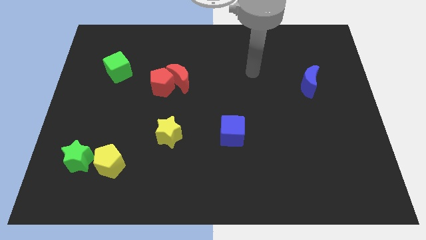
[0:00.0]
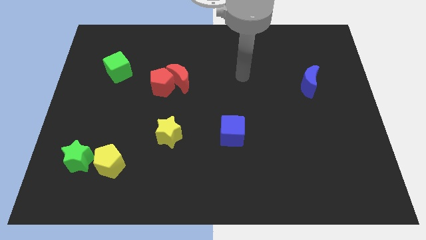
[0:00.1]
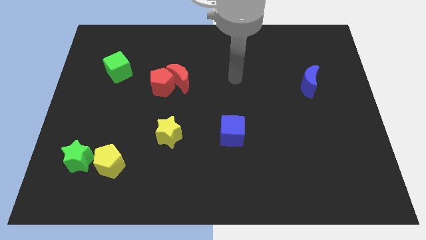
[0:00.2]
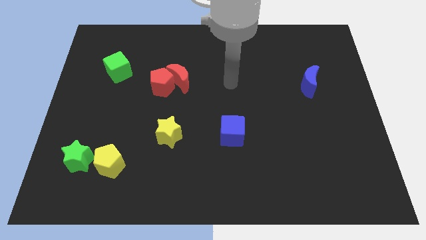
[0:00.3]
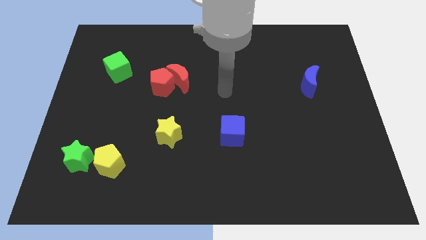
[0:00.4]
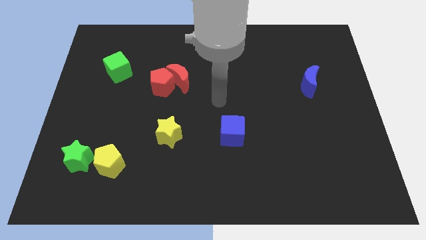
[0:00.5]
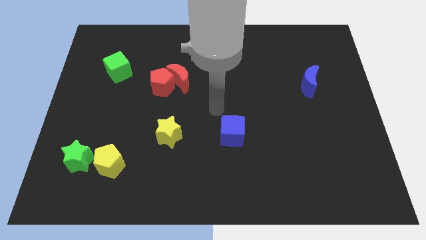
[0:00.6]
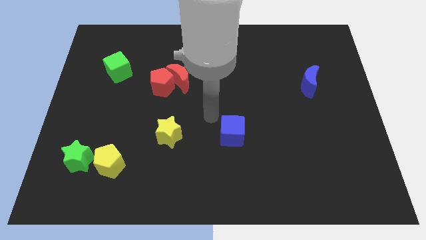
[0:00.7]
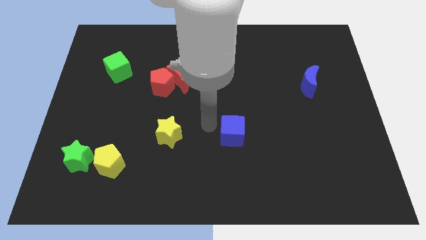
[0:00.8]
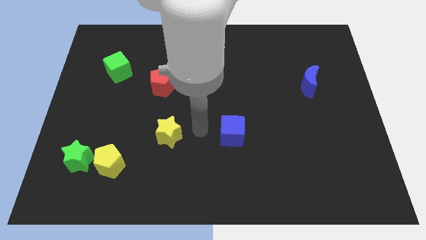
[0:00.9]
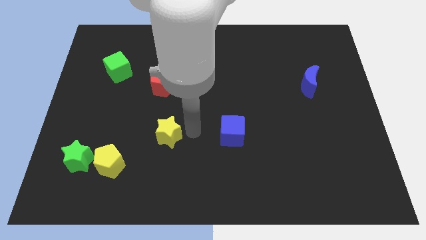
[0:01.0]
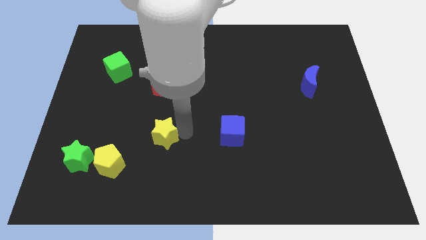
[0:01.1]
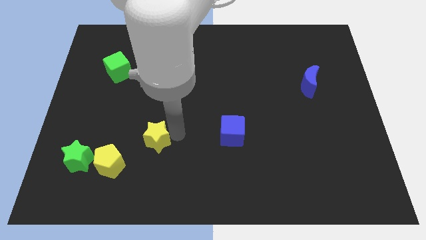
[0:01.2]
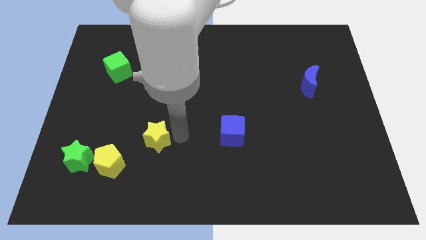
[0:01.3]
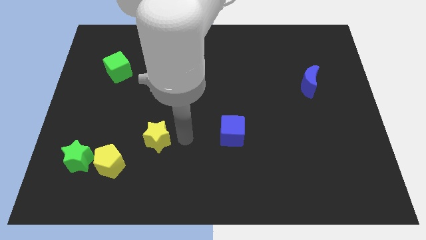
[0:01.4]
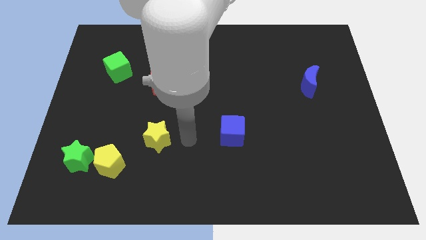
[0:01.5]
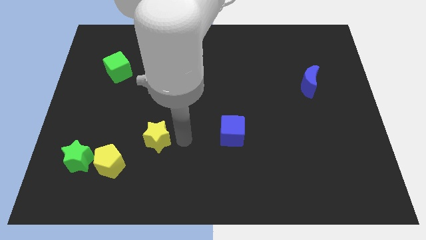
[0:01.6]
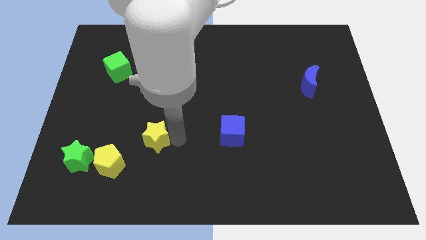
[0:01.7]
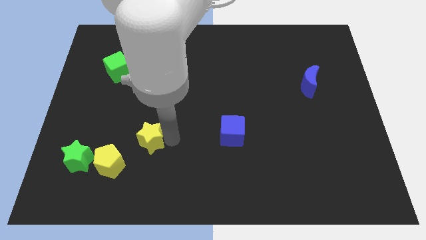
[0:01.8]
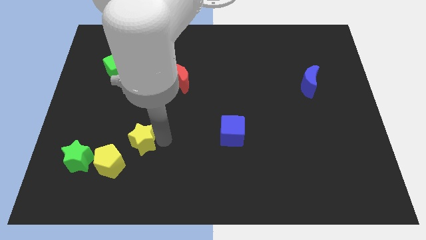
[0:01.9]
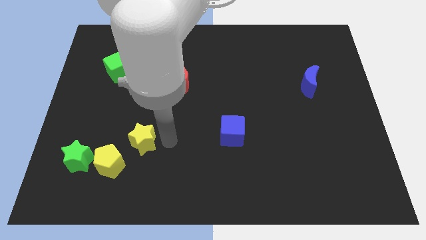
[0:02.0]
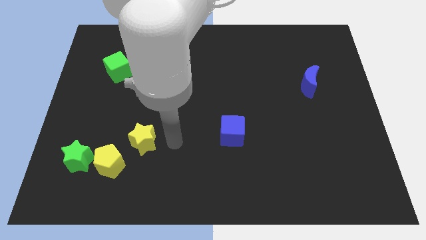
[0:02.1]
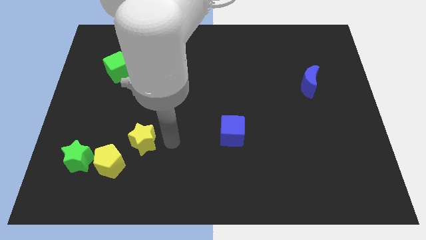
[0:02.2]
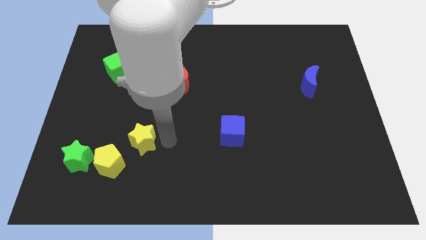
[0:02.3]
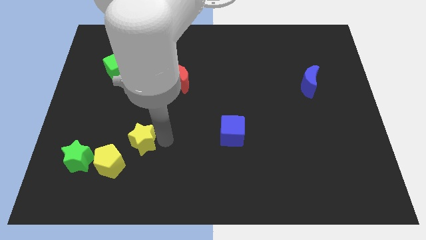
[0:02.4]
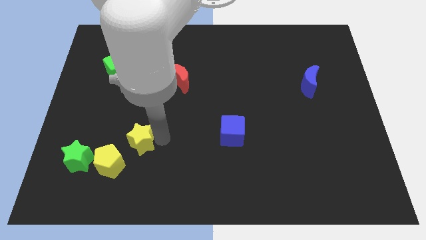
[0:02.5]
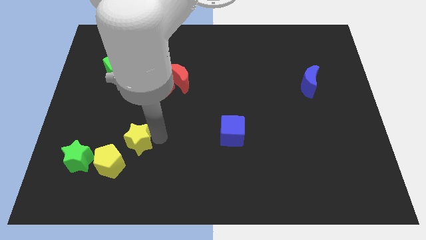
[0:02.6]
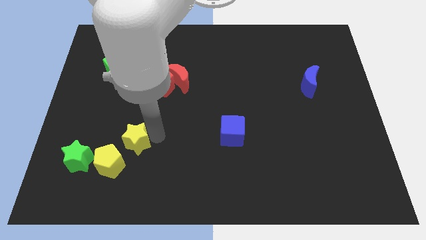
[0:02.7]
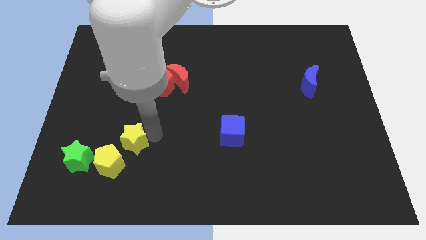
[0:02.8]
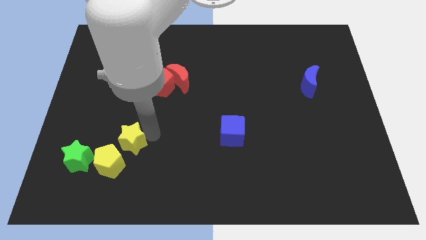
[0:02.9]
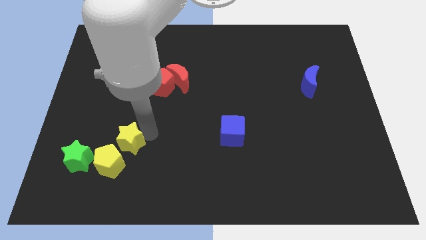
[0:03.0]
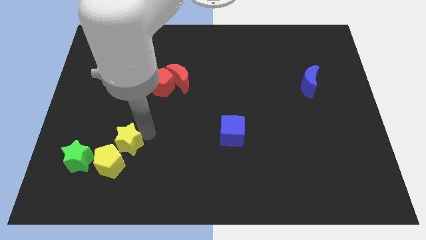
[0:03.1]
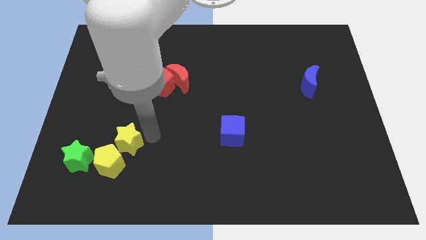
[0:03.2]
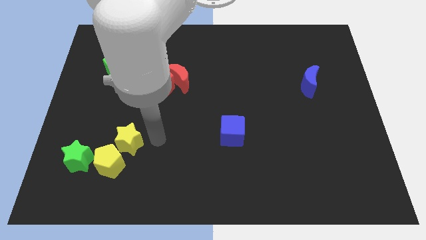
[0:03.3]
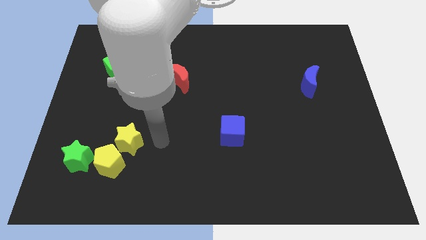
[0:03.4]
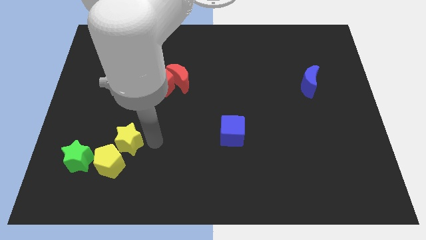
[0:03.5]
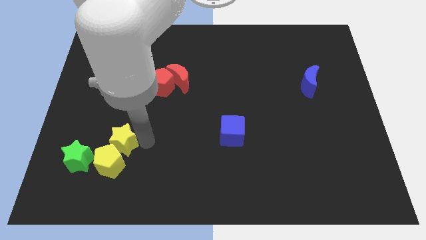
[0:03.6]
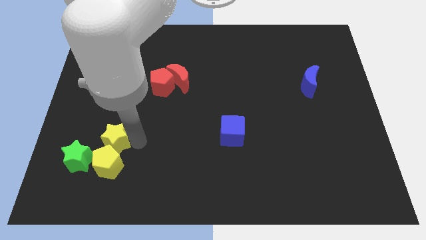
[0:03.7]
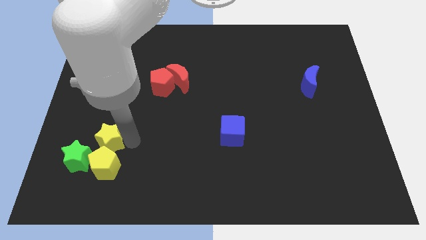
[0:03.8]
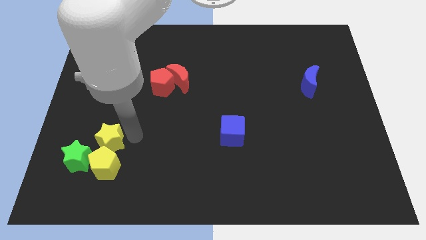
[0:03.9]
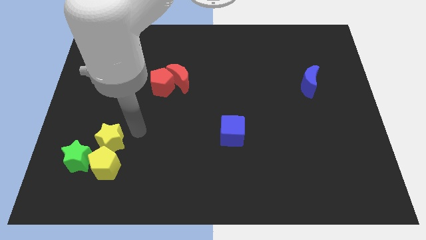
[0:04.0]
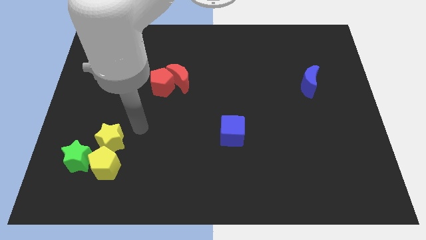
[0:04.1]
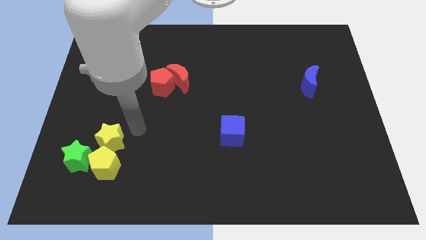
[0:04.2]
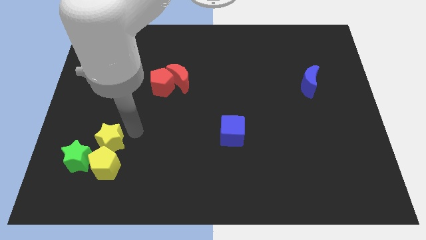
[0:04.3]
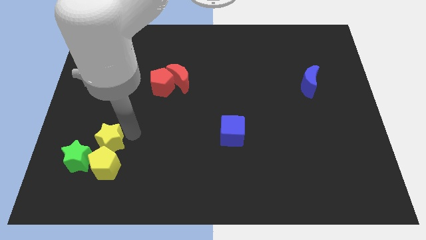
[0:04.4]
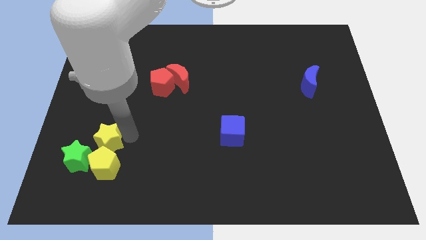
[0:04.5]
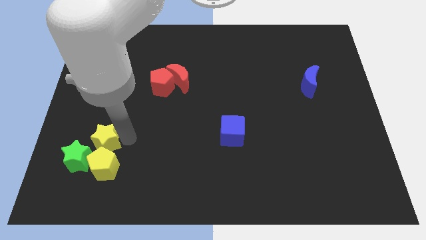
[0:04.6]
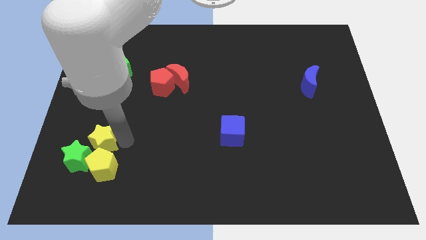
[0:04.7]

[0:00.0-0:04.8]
put the yellow star towards the green star

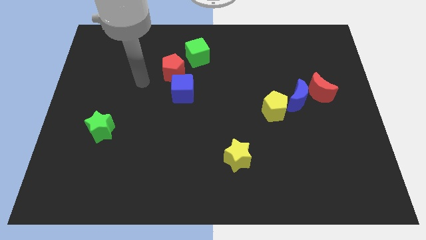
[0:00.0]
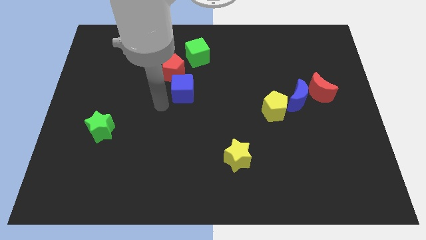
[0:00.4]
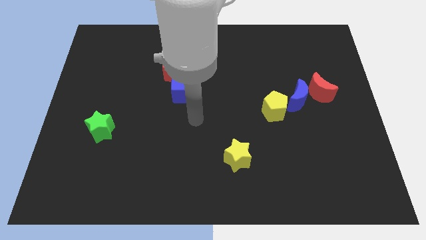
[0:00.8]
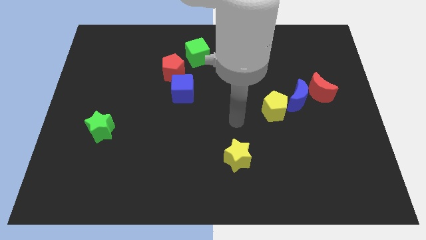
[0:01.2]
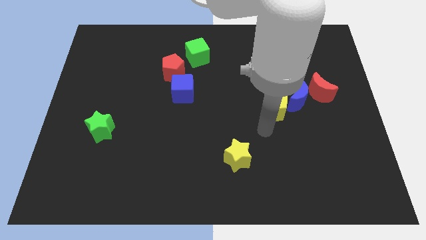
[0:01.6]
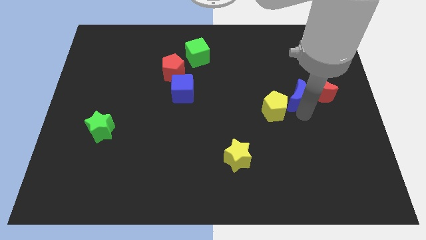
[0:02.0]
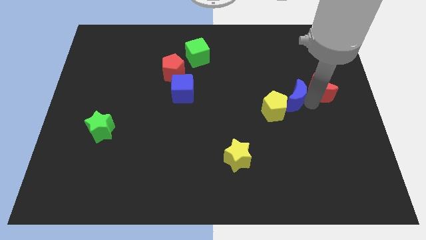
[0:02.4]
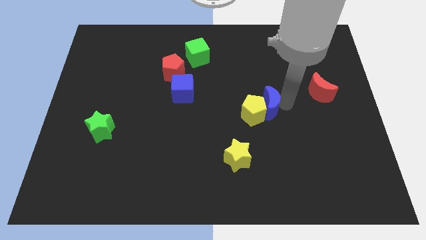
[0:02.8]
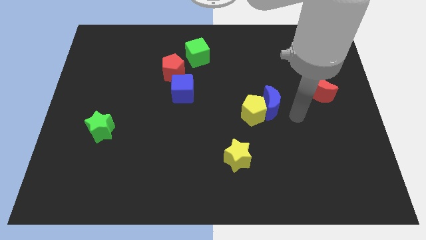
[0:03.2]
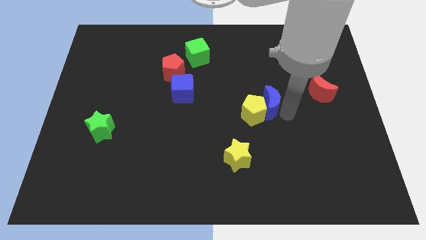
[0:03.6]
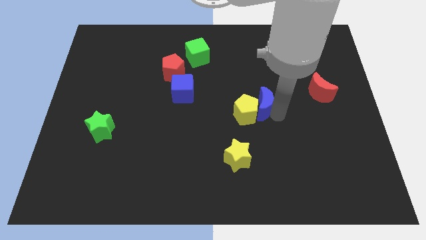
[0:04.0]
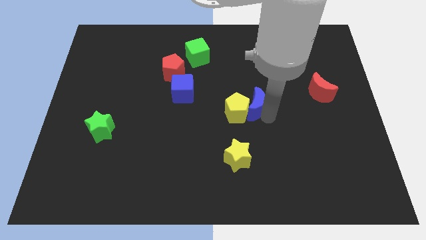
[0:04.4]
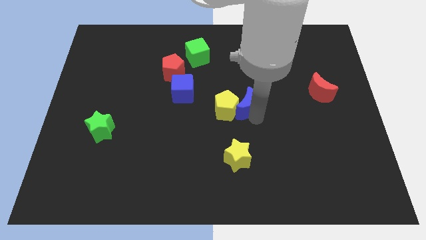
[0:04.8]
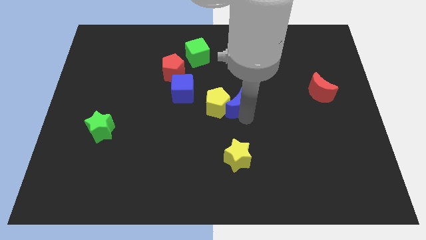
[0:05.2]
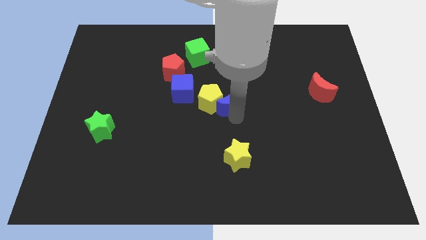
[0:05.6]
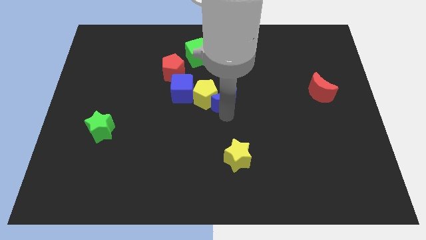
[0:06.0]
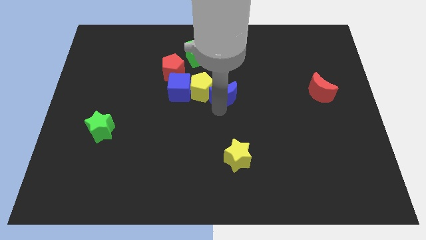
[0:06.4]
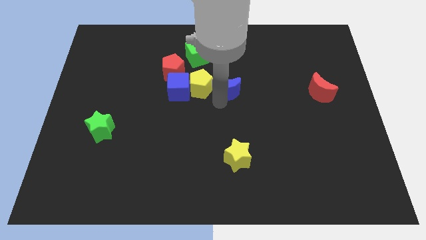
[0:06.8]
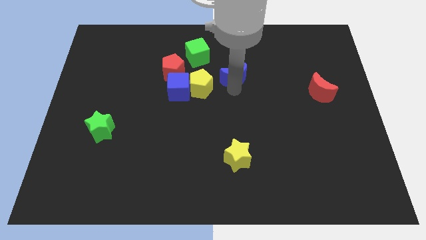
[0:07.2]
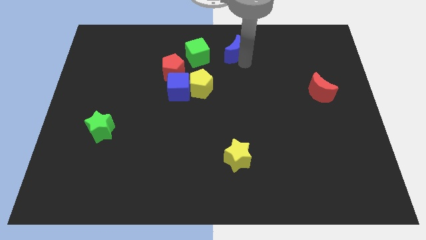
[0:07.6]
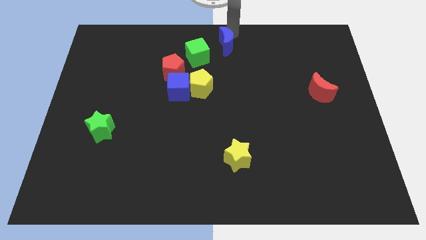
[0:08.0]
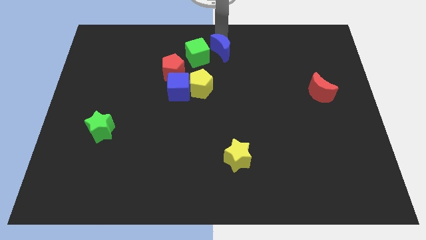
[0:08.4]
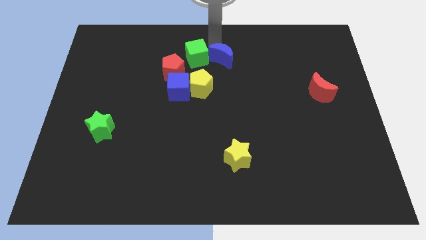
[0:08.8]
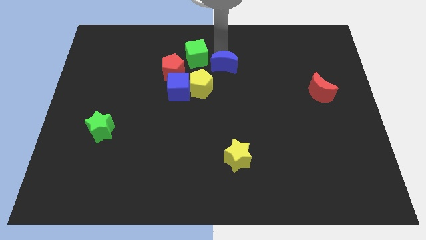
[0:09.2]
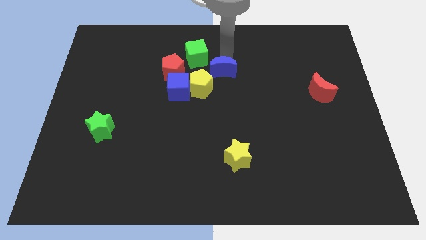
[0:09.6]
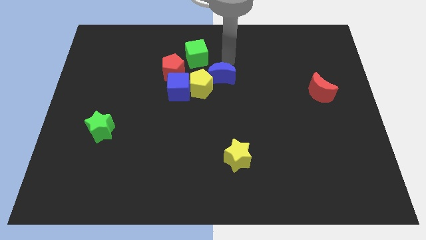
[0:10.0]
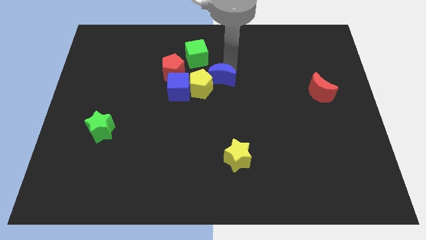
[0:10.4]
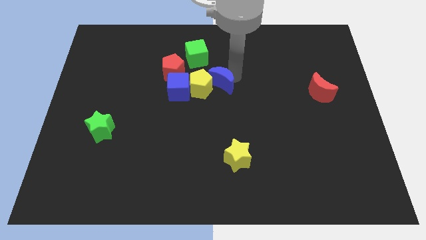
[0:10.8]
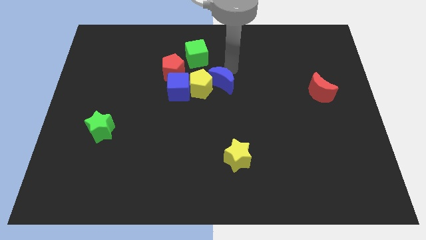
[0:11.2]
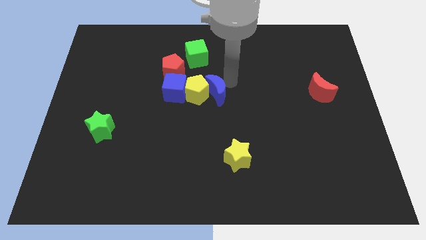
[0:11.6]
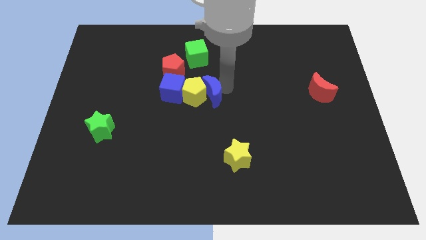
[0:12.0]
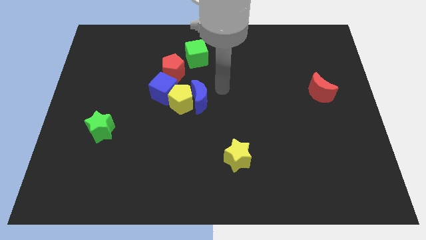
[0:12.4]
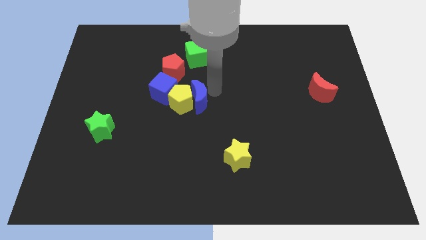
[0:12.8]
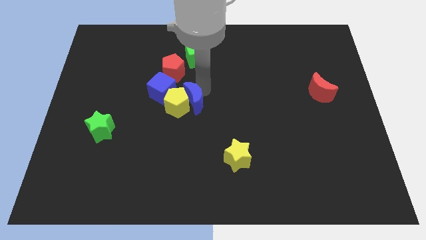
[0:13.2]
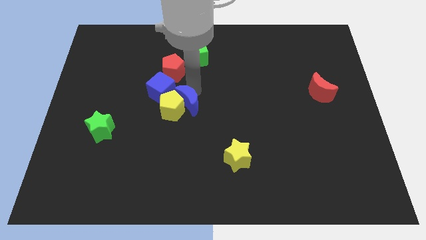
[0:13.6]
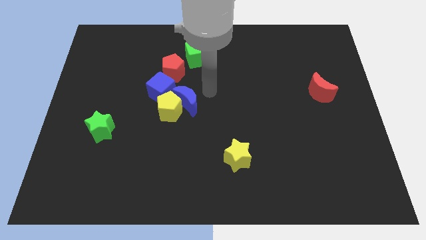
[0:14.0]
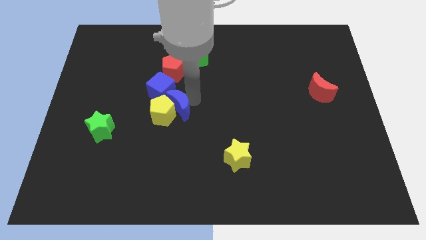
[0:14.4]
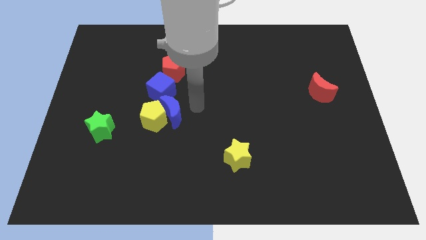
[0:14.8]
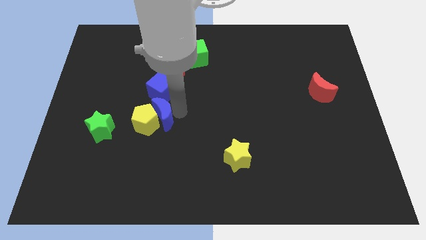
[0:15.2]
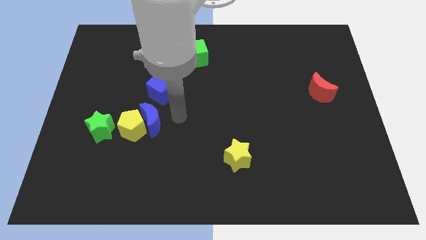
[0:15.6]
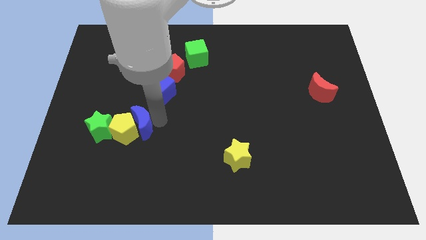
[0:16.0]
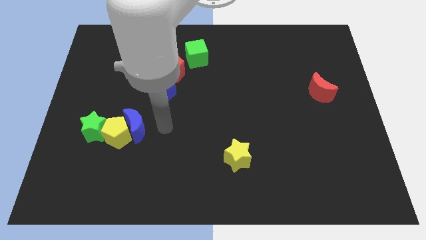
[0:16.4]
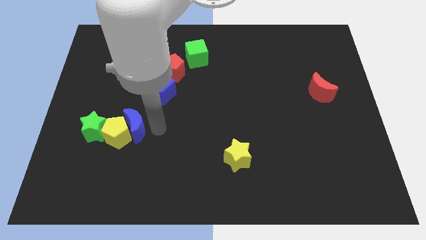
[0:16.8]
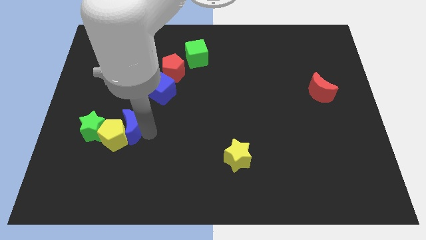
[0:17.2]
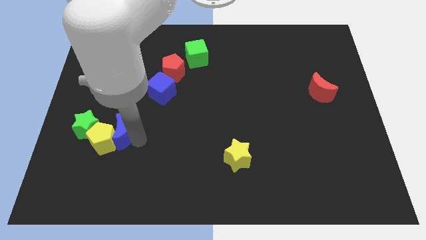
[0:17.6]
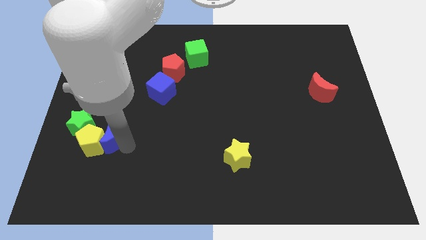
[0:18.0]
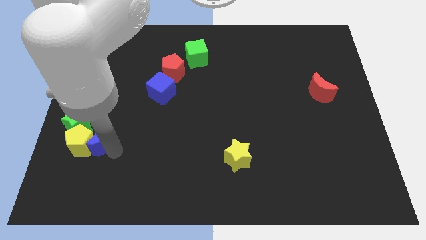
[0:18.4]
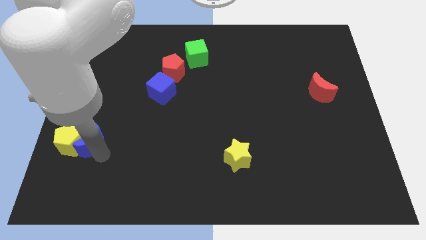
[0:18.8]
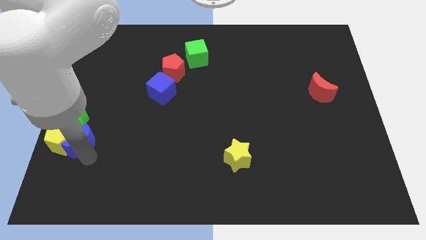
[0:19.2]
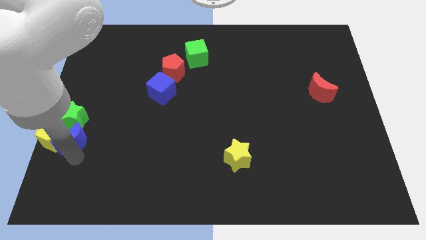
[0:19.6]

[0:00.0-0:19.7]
slide the blue moon to the green star
